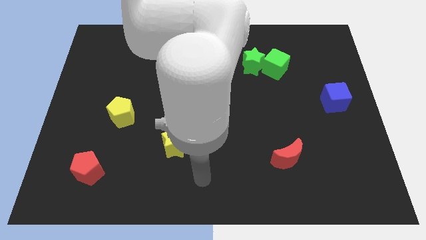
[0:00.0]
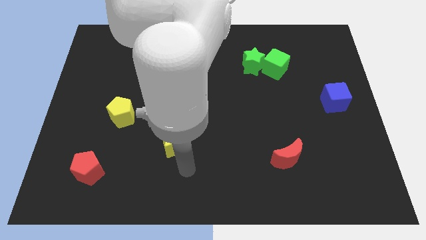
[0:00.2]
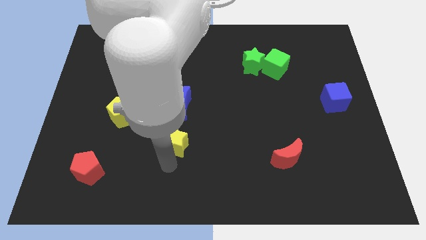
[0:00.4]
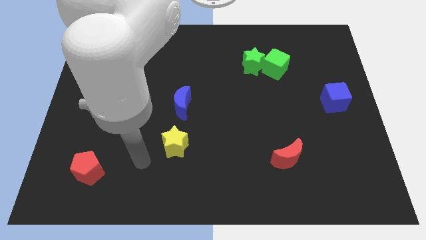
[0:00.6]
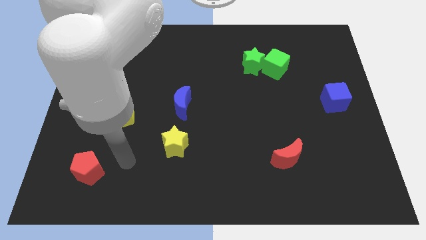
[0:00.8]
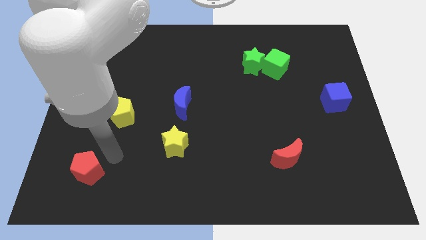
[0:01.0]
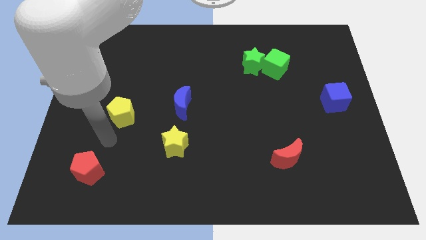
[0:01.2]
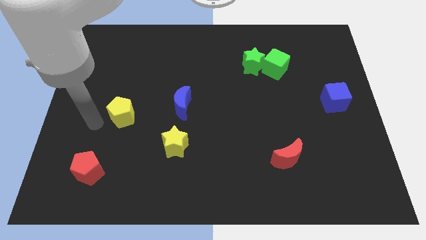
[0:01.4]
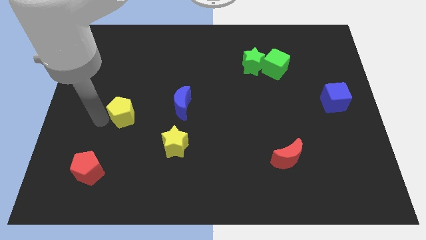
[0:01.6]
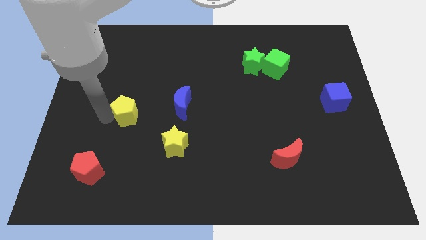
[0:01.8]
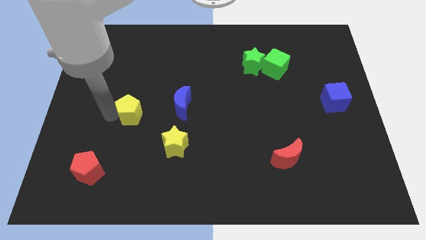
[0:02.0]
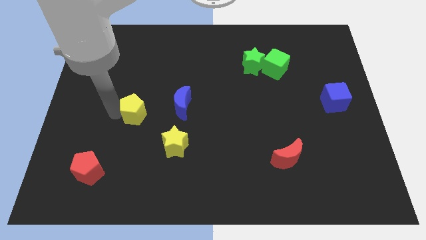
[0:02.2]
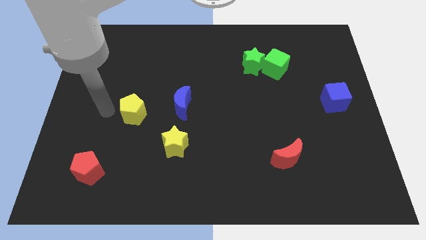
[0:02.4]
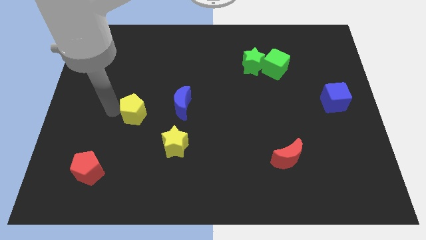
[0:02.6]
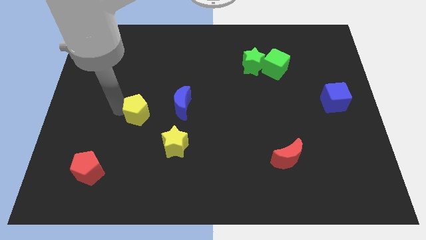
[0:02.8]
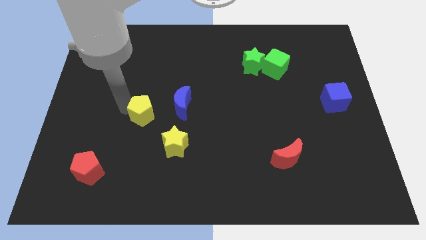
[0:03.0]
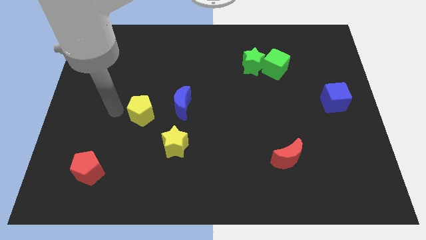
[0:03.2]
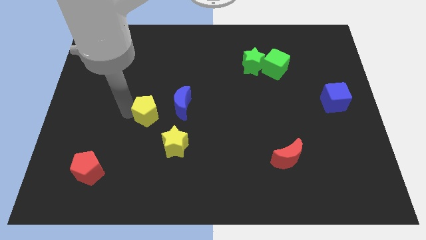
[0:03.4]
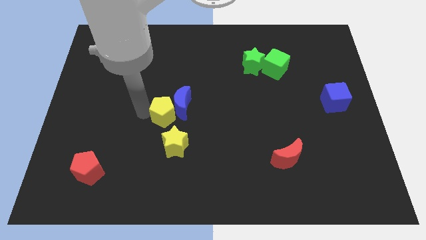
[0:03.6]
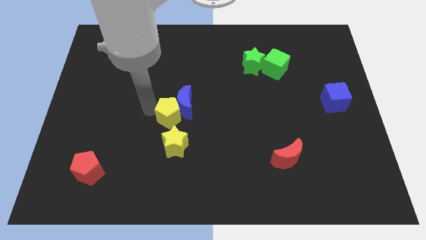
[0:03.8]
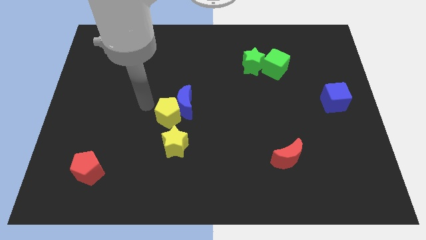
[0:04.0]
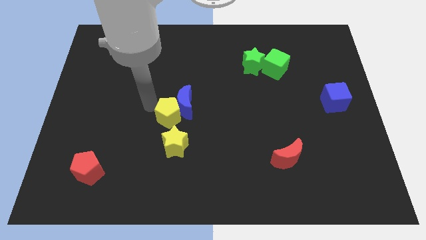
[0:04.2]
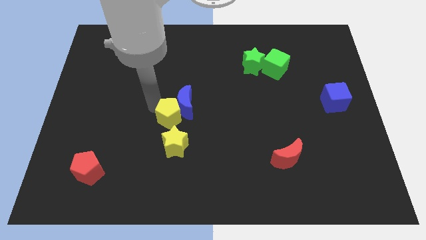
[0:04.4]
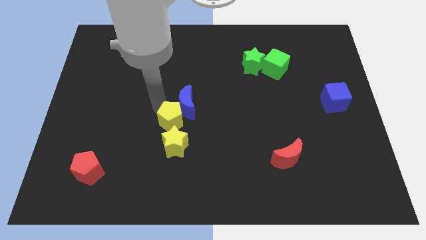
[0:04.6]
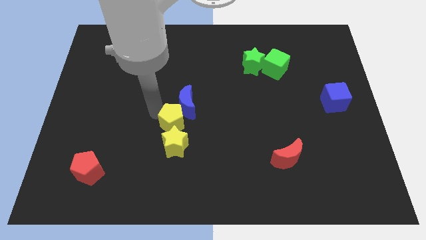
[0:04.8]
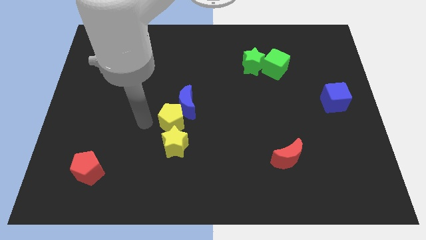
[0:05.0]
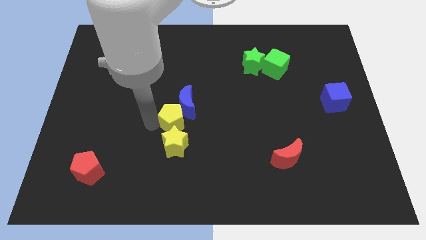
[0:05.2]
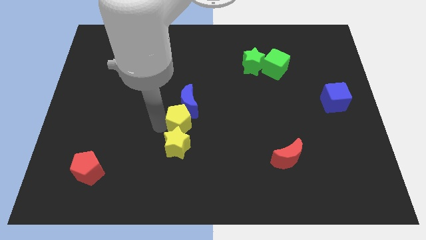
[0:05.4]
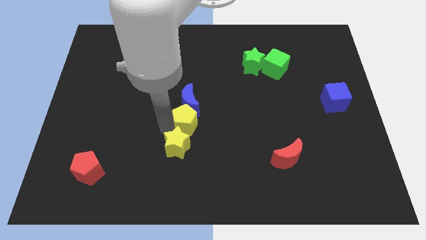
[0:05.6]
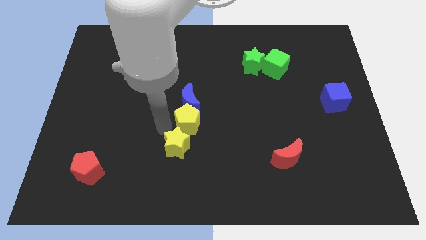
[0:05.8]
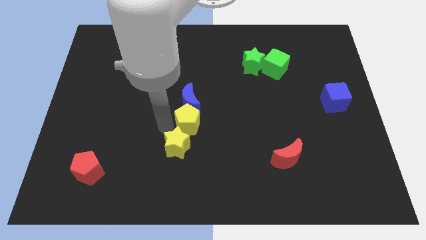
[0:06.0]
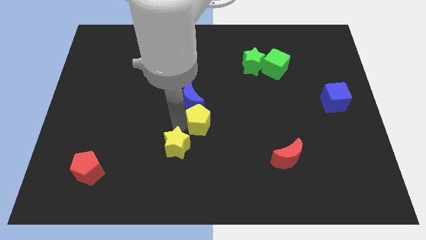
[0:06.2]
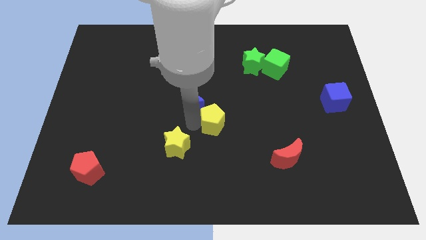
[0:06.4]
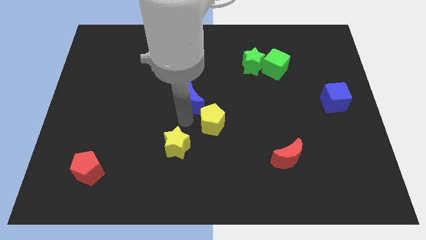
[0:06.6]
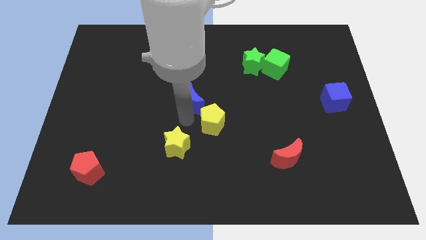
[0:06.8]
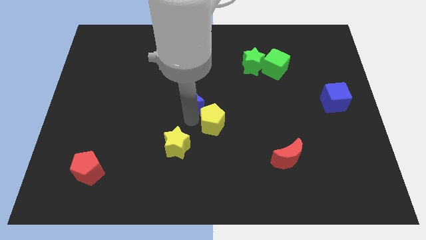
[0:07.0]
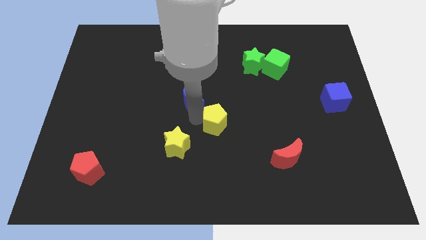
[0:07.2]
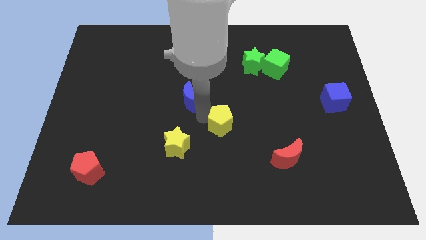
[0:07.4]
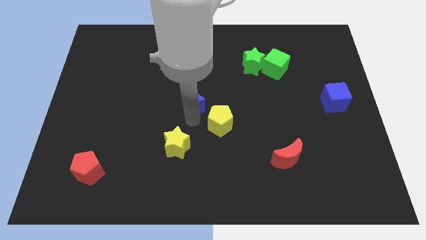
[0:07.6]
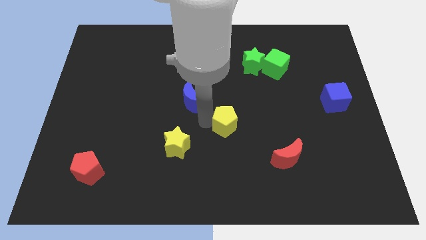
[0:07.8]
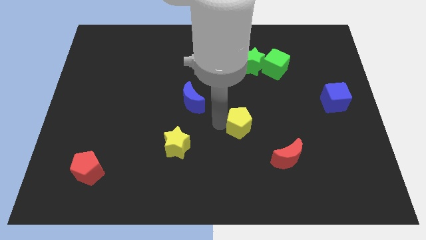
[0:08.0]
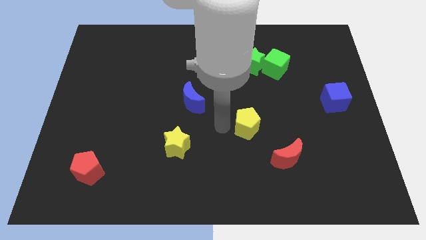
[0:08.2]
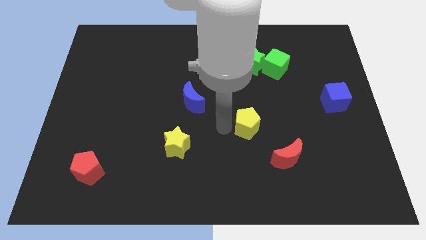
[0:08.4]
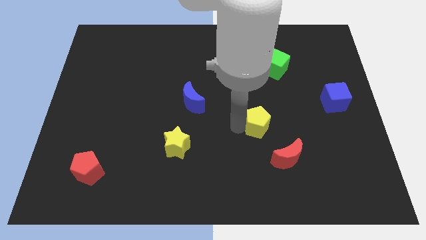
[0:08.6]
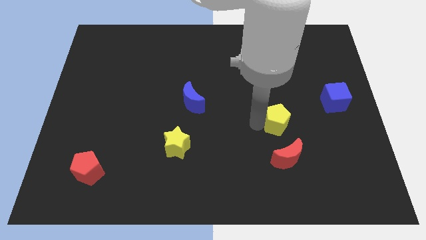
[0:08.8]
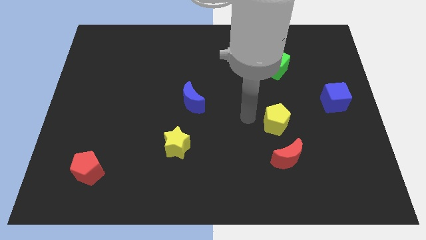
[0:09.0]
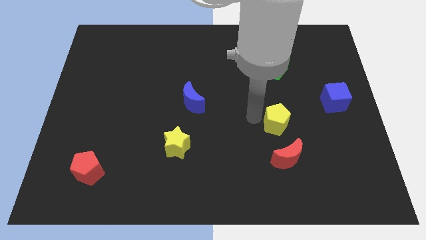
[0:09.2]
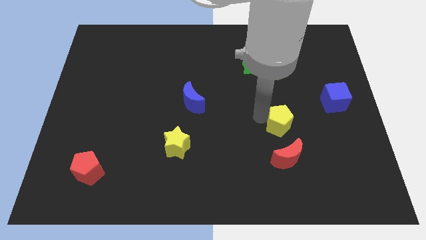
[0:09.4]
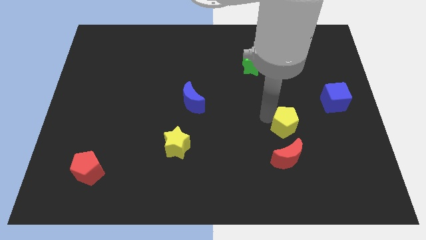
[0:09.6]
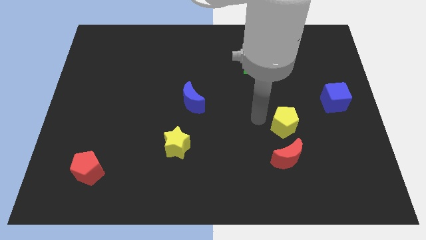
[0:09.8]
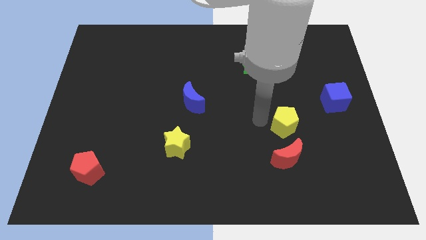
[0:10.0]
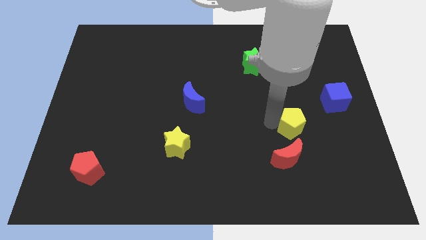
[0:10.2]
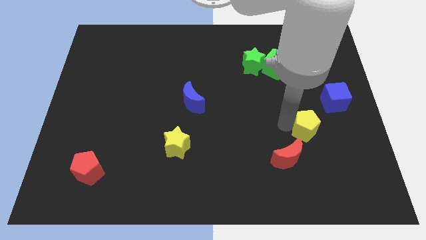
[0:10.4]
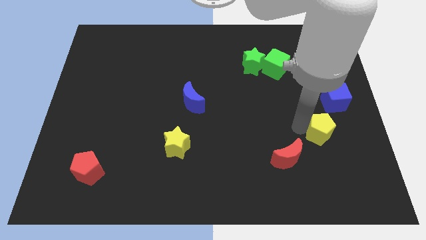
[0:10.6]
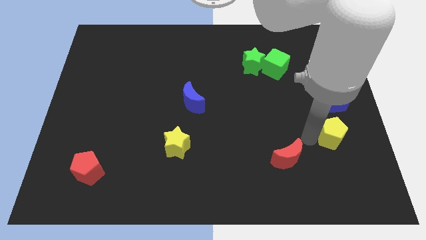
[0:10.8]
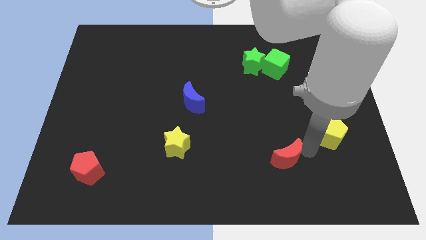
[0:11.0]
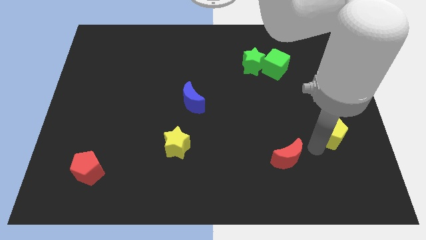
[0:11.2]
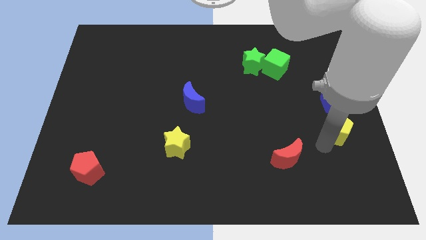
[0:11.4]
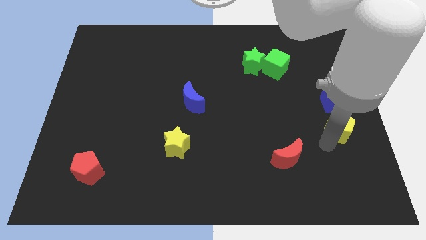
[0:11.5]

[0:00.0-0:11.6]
put the yellow pentagon to the right side of the board

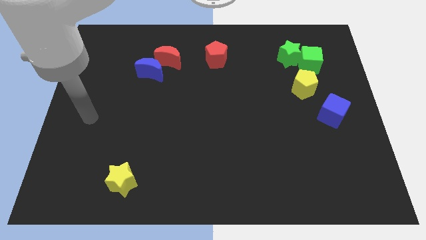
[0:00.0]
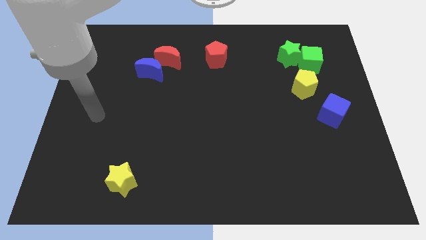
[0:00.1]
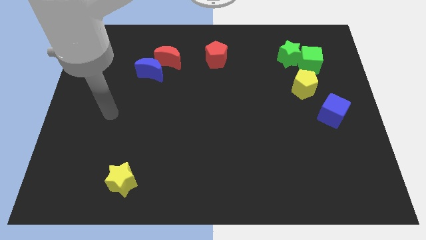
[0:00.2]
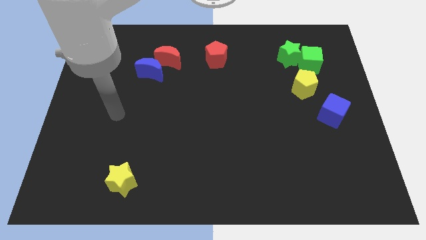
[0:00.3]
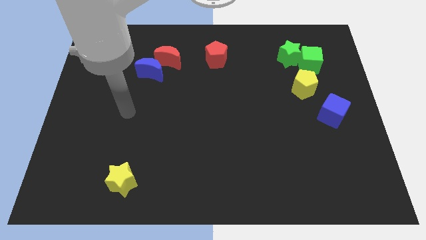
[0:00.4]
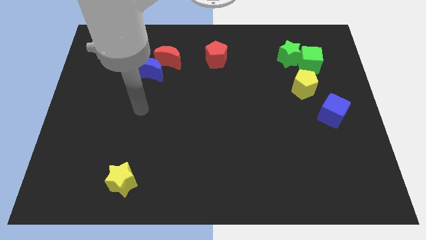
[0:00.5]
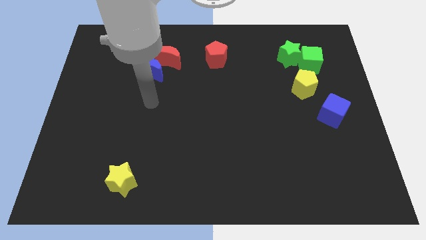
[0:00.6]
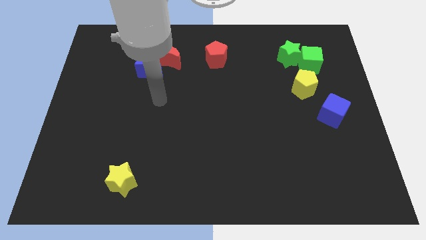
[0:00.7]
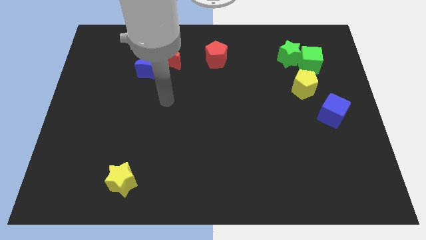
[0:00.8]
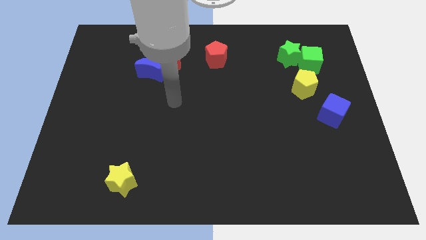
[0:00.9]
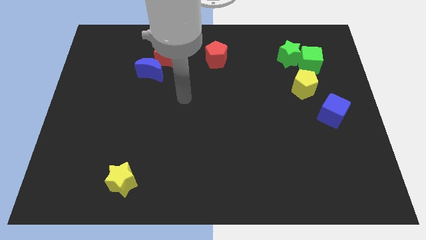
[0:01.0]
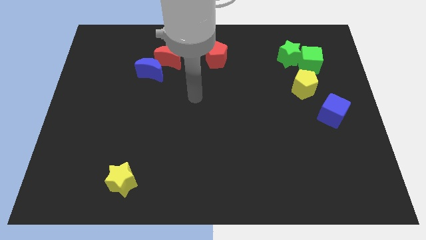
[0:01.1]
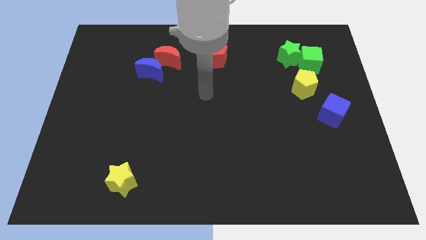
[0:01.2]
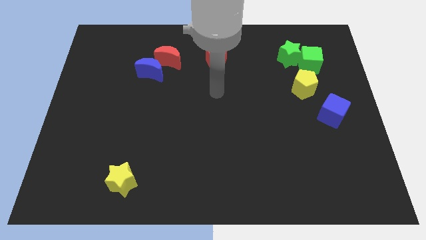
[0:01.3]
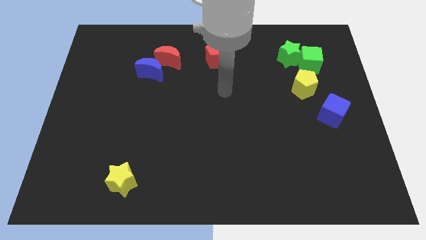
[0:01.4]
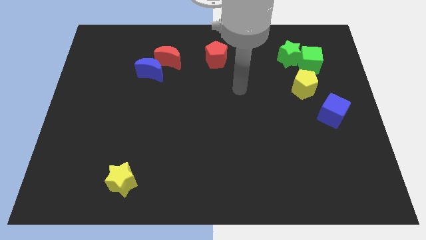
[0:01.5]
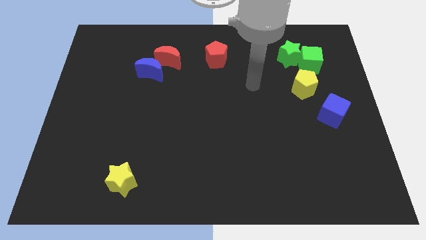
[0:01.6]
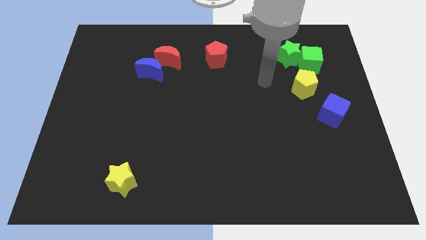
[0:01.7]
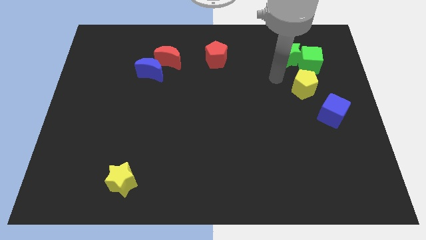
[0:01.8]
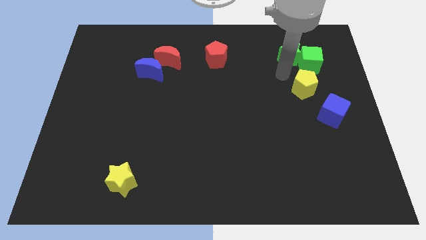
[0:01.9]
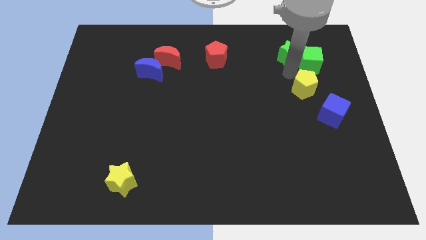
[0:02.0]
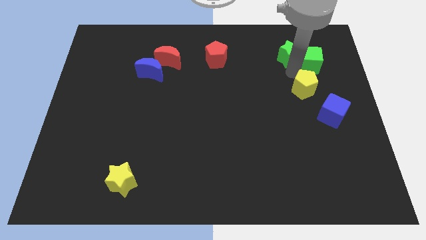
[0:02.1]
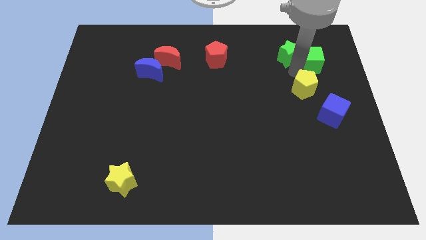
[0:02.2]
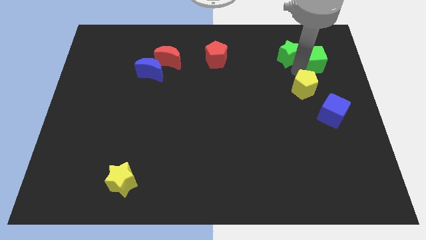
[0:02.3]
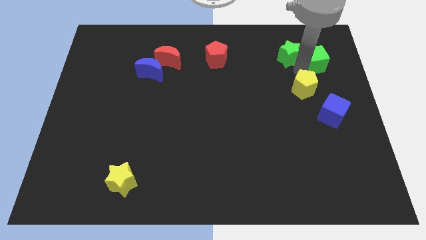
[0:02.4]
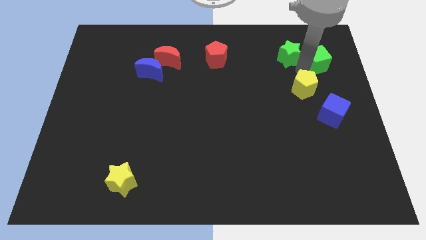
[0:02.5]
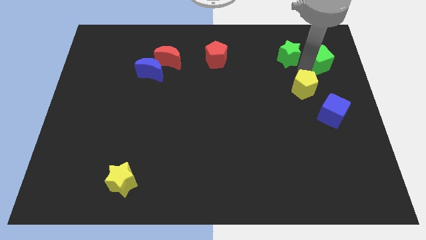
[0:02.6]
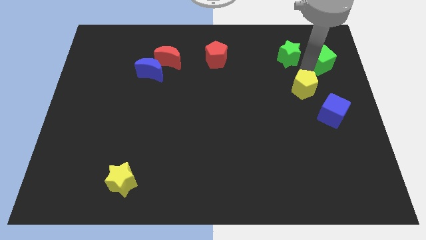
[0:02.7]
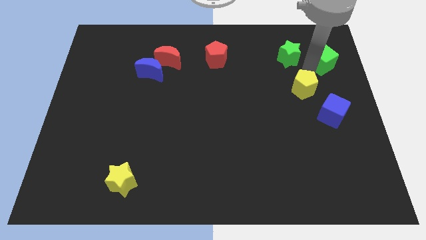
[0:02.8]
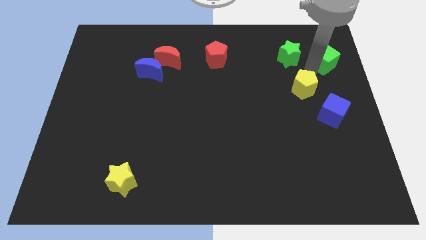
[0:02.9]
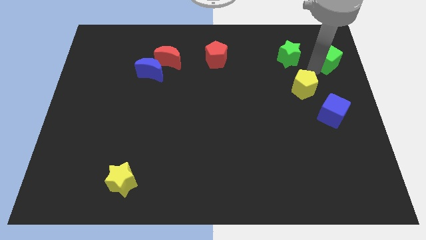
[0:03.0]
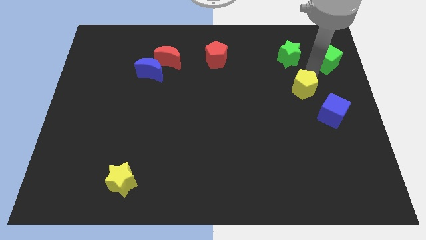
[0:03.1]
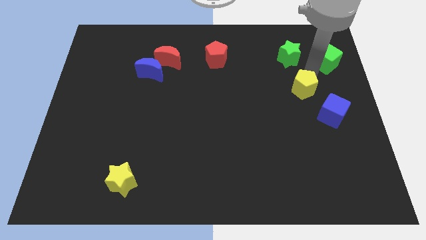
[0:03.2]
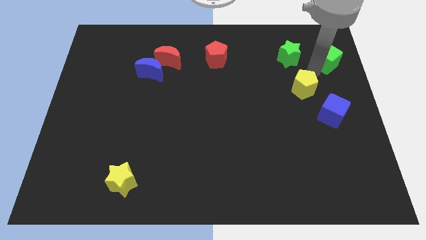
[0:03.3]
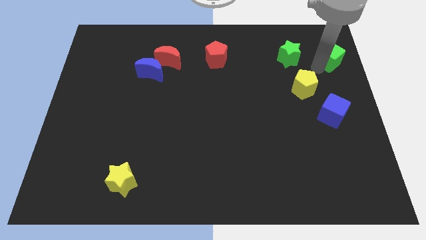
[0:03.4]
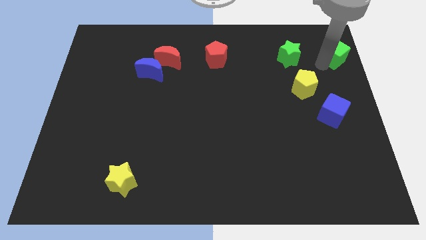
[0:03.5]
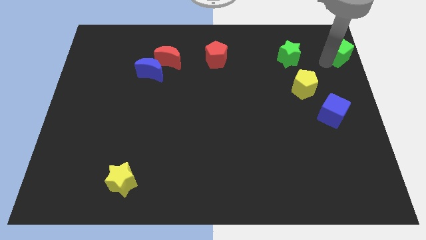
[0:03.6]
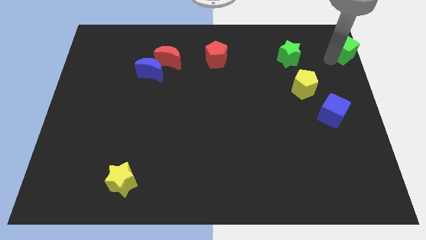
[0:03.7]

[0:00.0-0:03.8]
push the green cube to the top right corner
